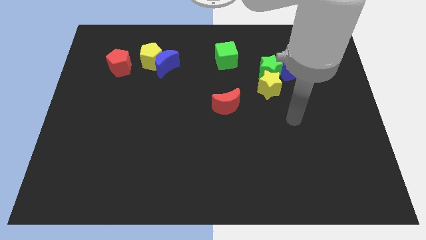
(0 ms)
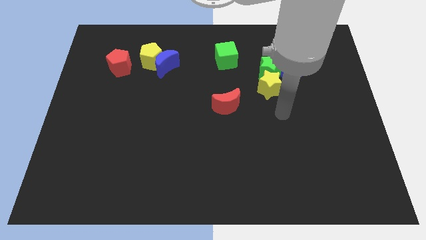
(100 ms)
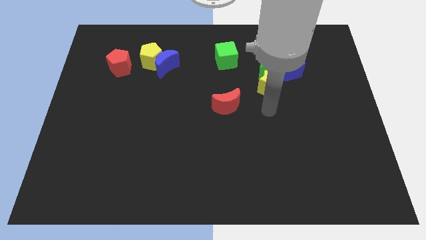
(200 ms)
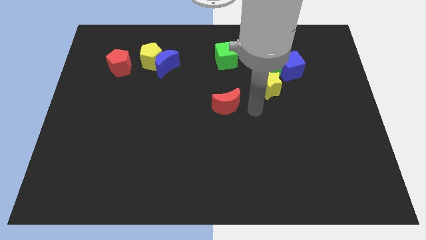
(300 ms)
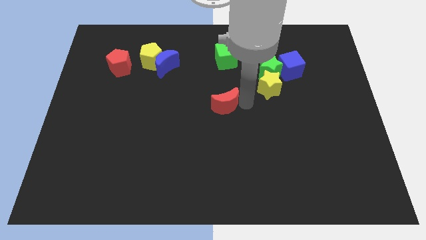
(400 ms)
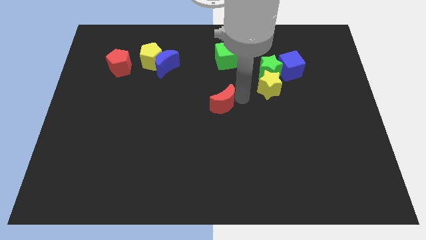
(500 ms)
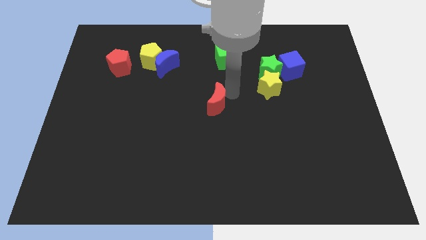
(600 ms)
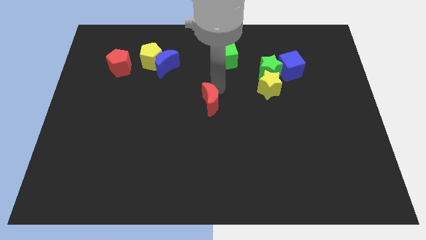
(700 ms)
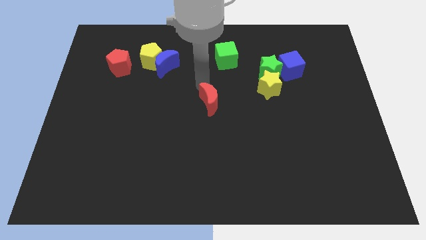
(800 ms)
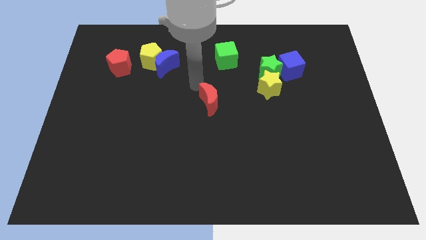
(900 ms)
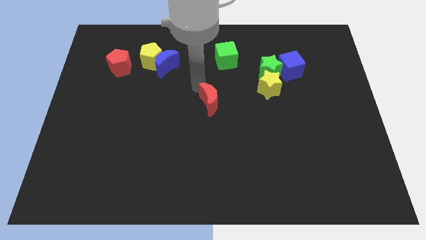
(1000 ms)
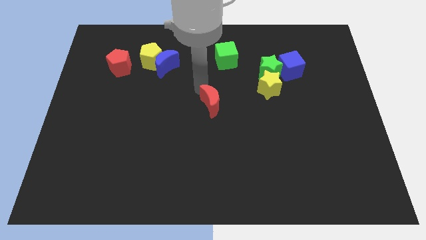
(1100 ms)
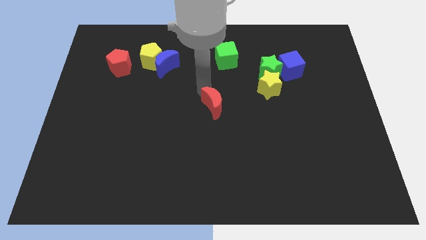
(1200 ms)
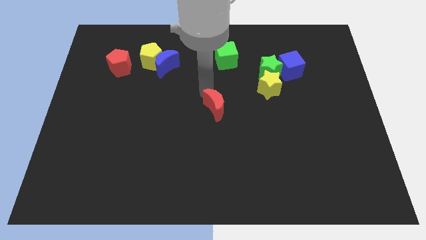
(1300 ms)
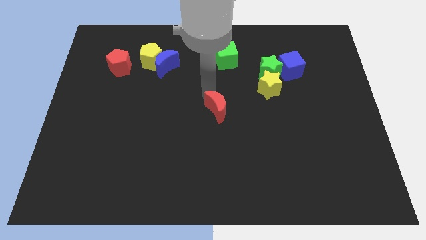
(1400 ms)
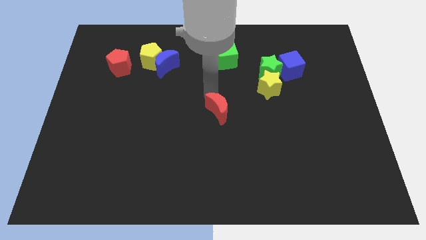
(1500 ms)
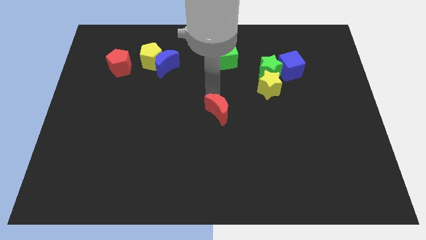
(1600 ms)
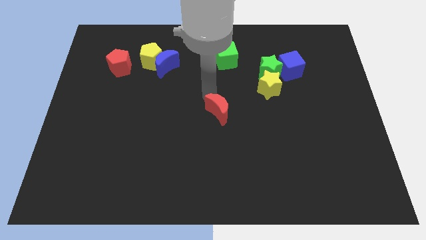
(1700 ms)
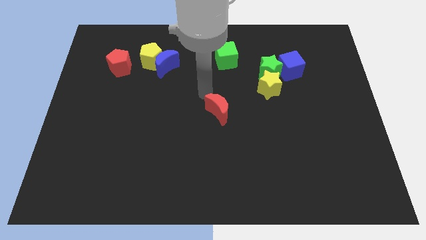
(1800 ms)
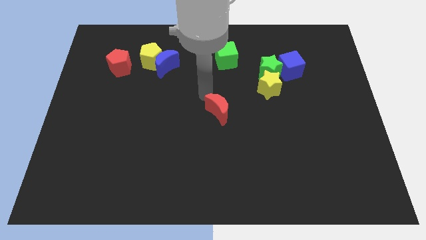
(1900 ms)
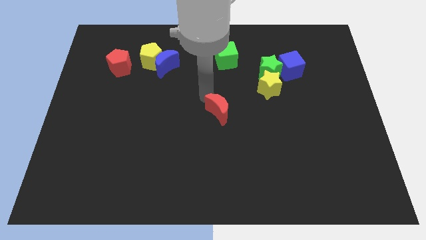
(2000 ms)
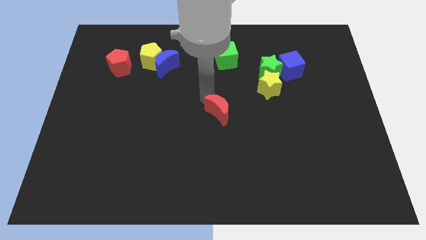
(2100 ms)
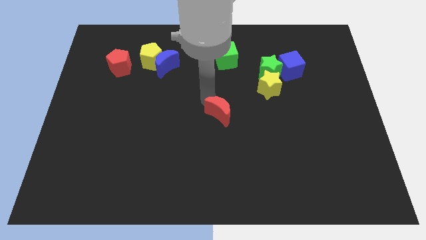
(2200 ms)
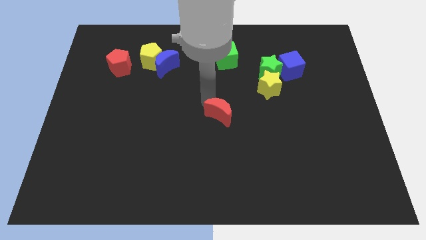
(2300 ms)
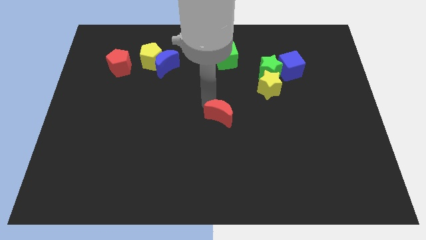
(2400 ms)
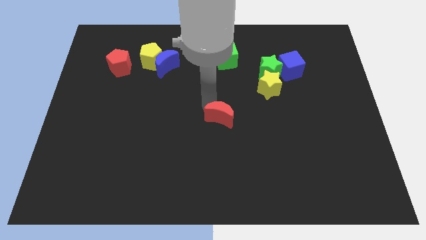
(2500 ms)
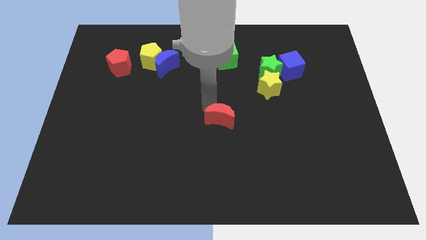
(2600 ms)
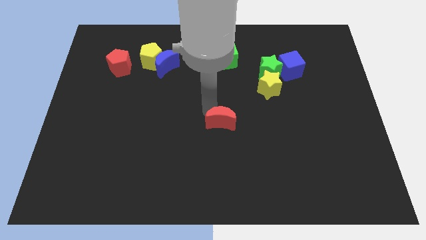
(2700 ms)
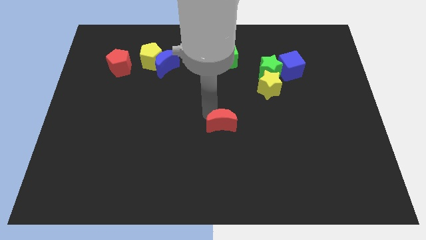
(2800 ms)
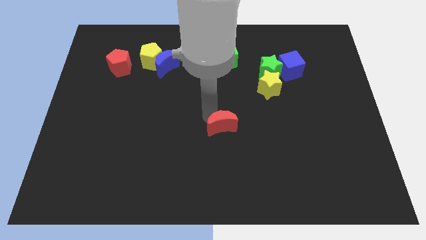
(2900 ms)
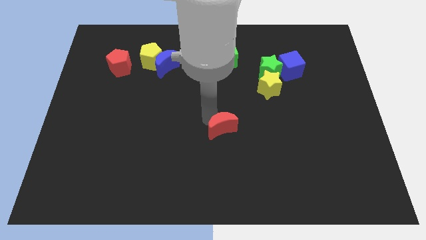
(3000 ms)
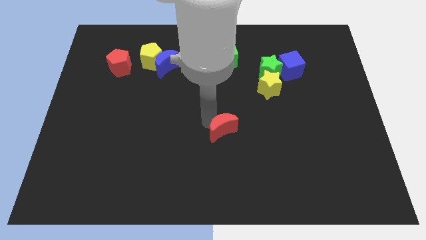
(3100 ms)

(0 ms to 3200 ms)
push the red moon down a bit

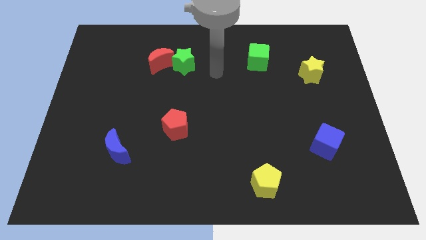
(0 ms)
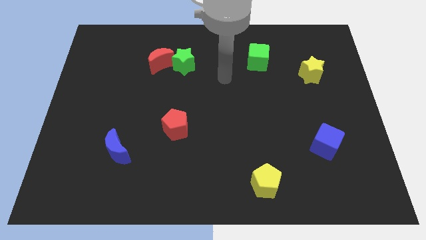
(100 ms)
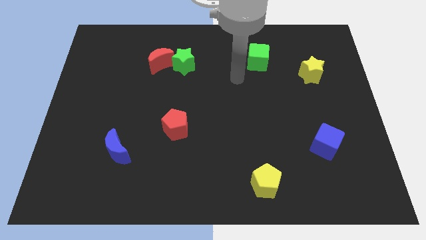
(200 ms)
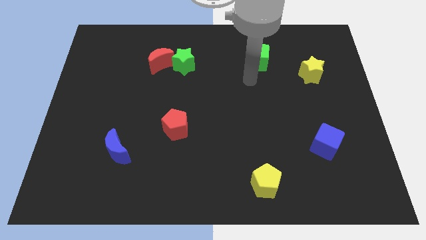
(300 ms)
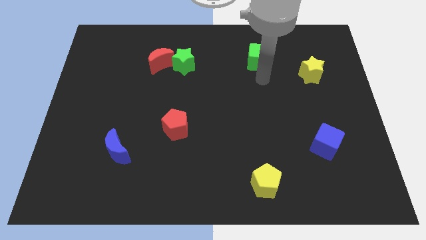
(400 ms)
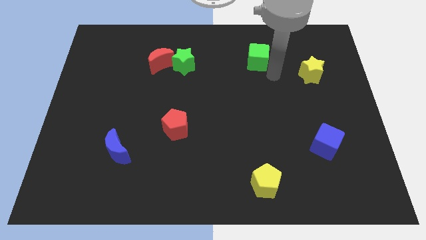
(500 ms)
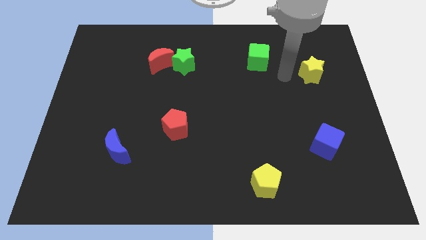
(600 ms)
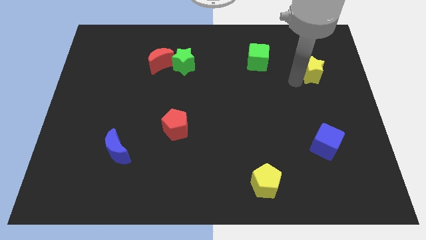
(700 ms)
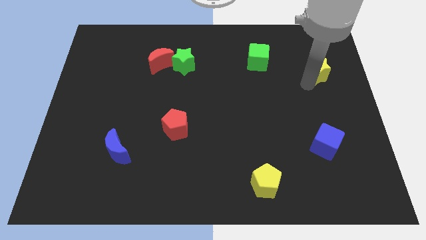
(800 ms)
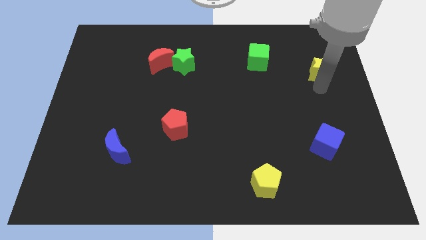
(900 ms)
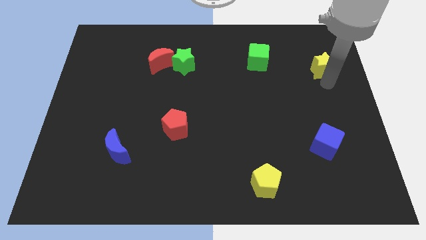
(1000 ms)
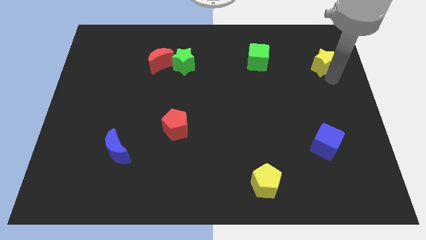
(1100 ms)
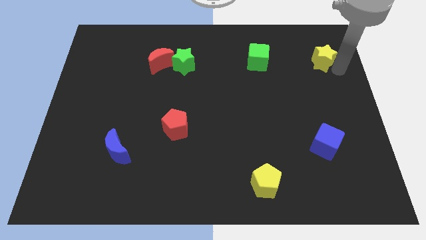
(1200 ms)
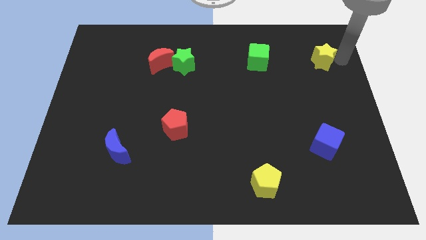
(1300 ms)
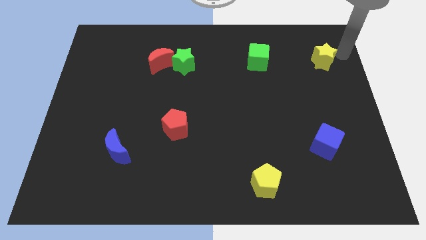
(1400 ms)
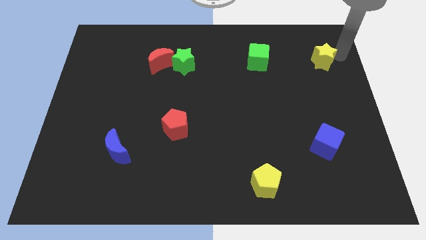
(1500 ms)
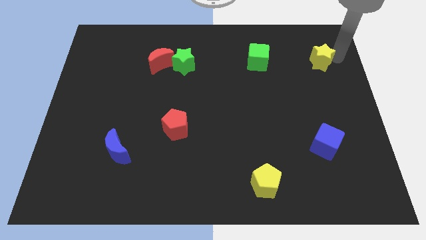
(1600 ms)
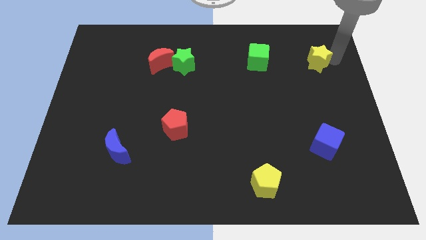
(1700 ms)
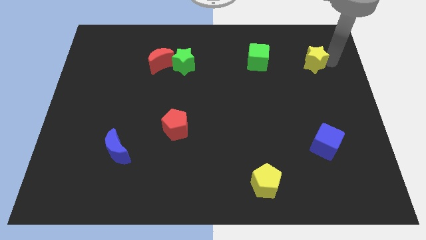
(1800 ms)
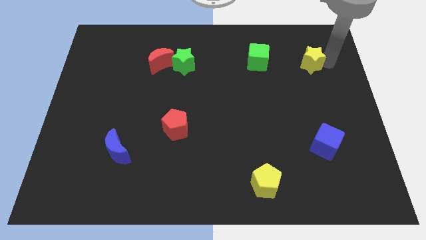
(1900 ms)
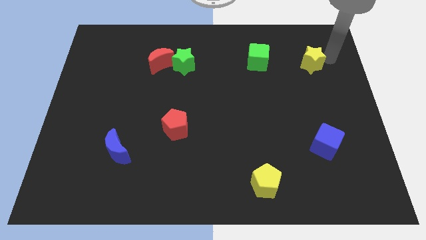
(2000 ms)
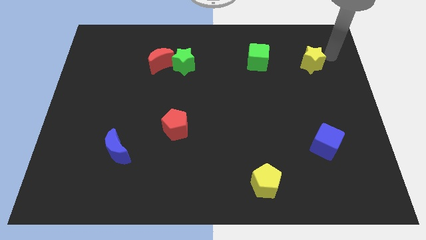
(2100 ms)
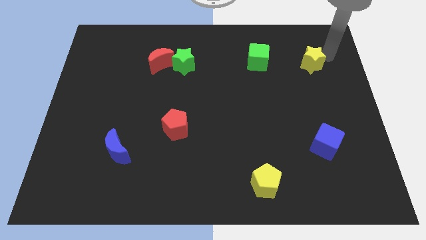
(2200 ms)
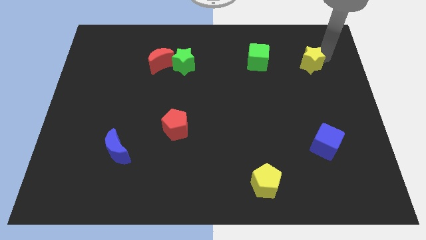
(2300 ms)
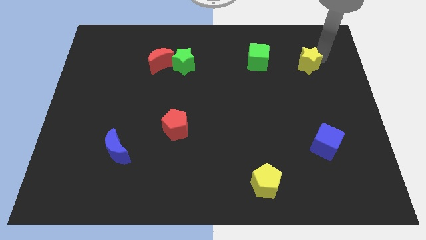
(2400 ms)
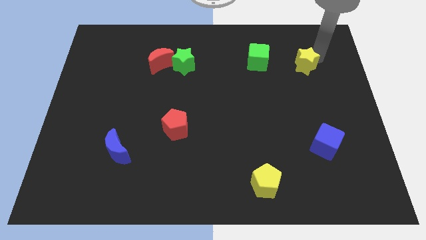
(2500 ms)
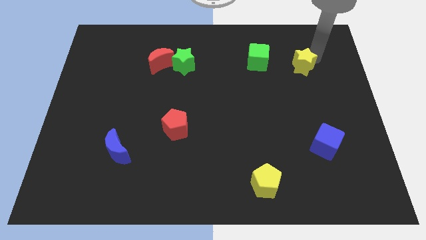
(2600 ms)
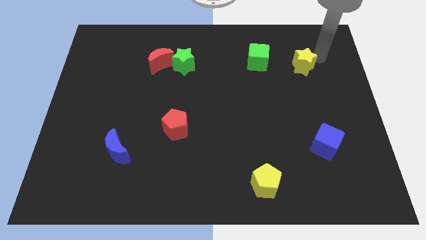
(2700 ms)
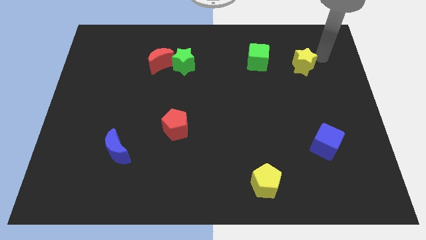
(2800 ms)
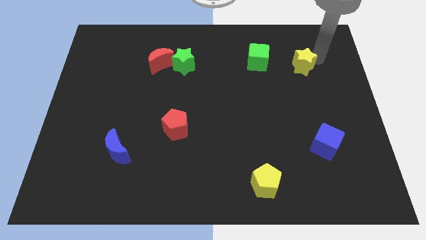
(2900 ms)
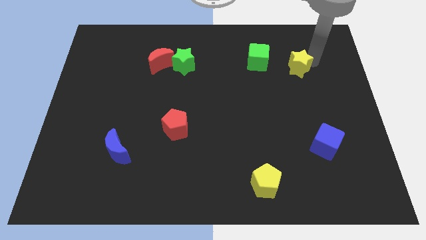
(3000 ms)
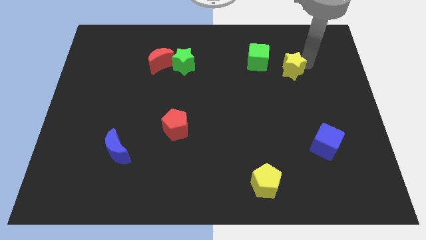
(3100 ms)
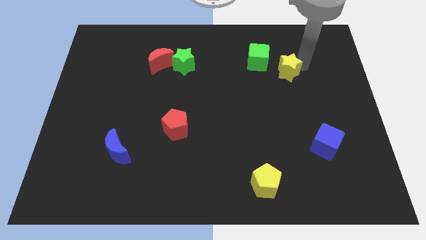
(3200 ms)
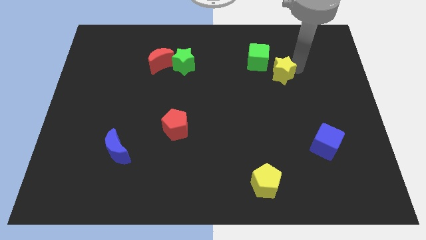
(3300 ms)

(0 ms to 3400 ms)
move the yellow star a little to the left

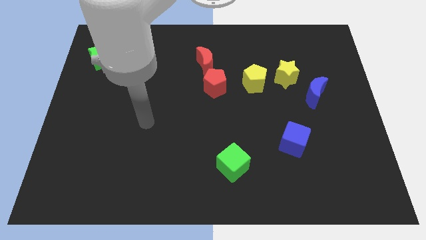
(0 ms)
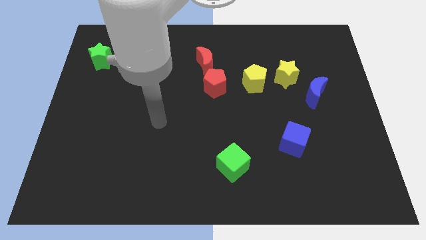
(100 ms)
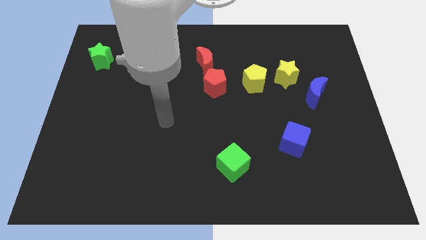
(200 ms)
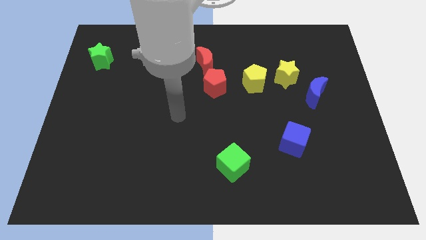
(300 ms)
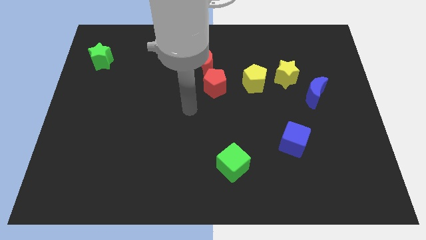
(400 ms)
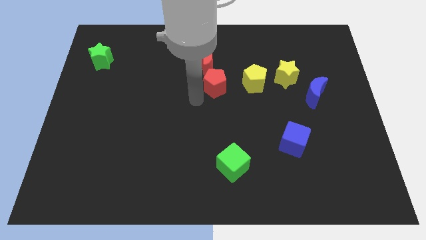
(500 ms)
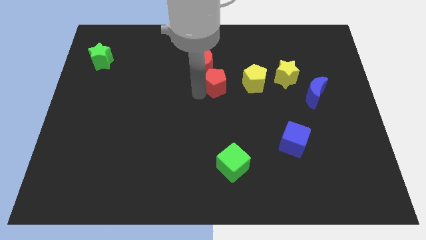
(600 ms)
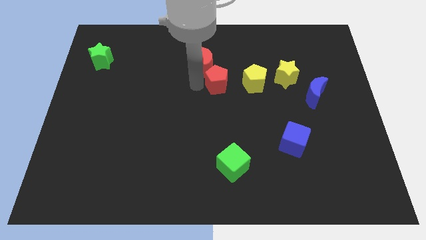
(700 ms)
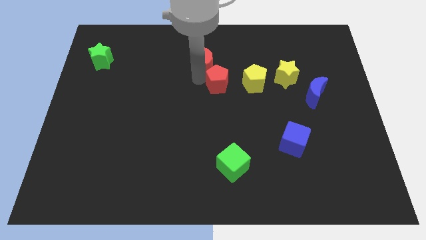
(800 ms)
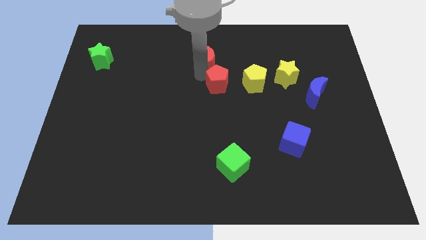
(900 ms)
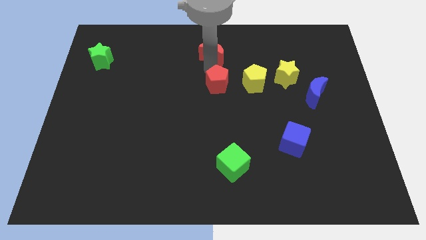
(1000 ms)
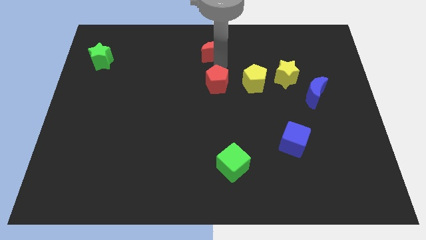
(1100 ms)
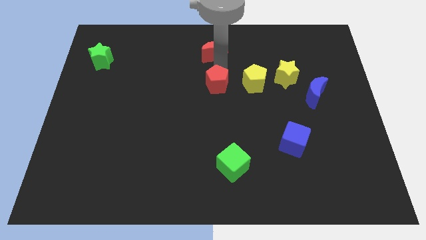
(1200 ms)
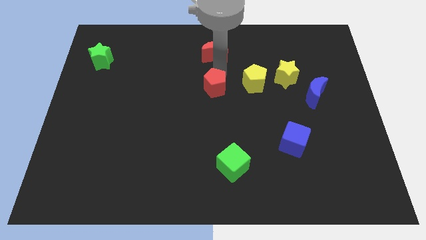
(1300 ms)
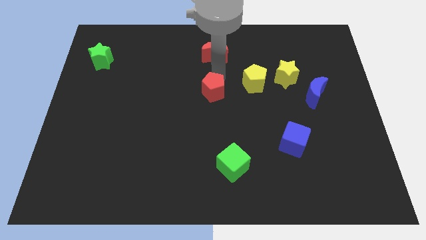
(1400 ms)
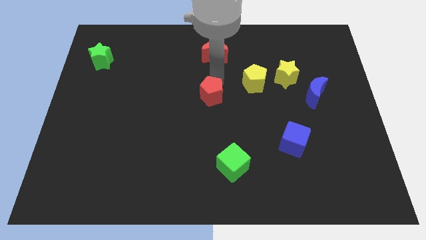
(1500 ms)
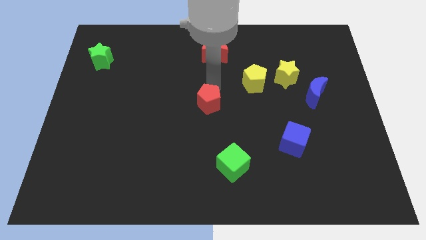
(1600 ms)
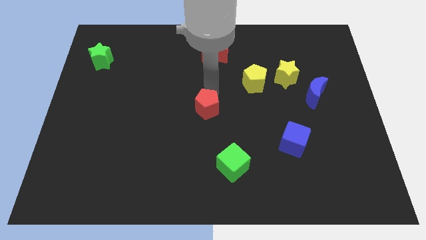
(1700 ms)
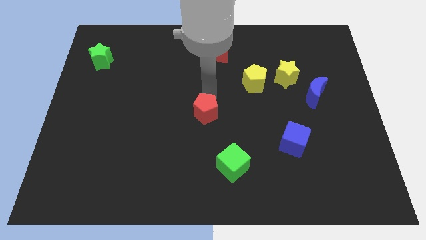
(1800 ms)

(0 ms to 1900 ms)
push the red pentagon slightly downwards
